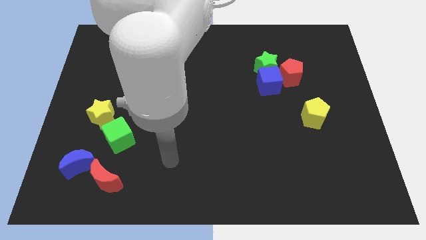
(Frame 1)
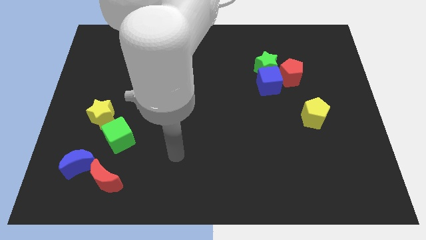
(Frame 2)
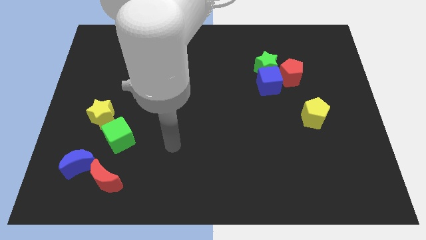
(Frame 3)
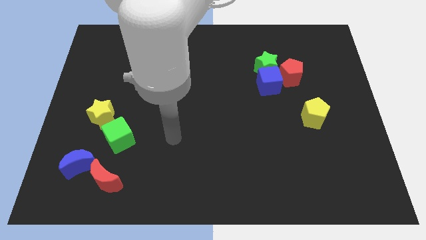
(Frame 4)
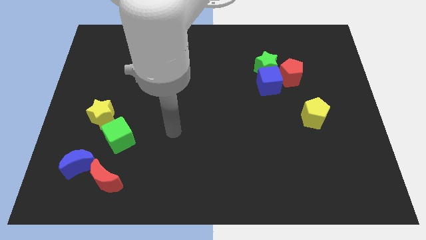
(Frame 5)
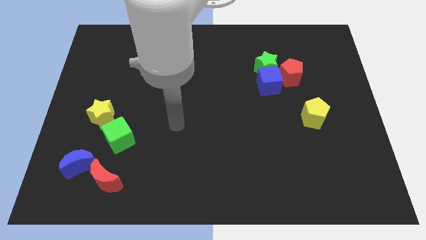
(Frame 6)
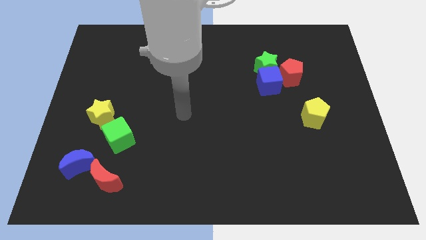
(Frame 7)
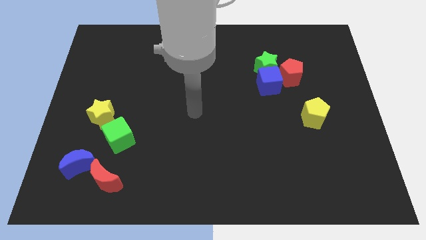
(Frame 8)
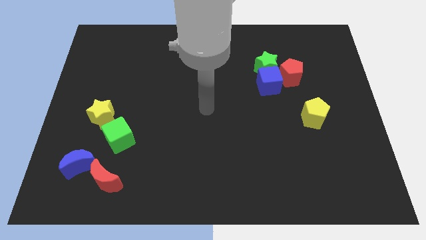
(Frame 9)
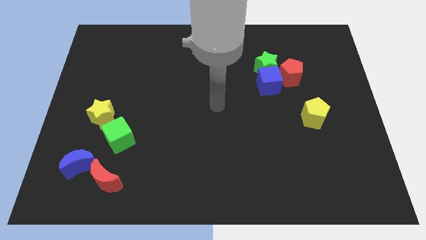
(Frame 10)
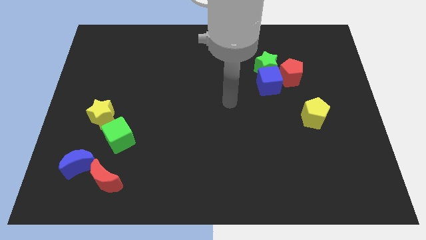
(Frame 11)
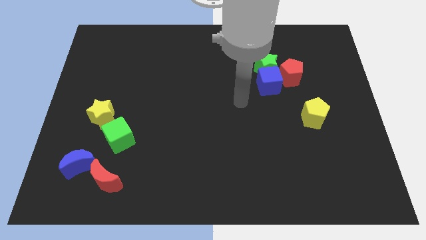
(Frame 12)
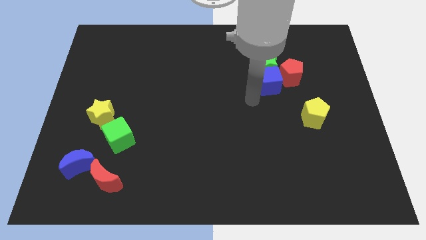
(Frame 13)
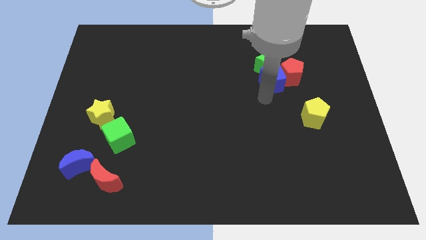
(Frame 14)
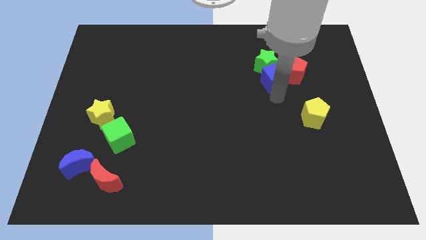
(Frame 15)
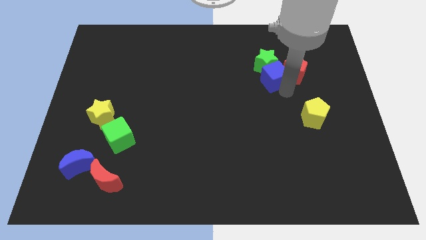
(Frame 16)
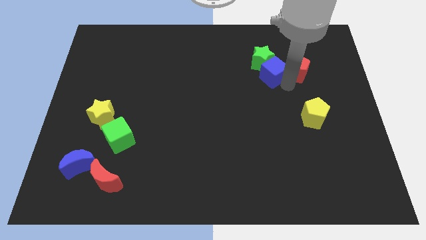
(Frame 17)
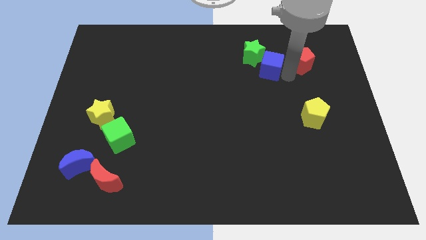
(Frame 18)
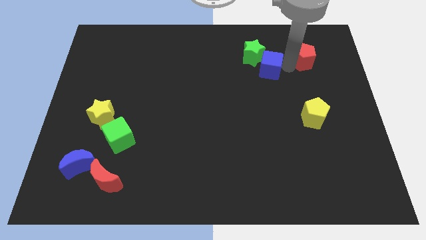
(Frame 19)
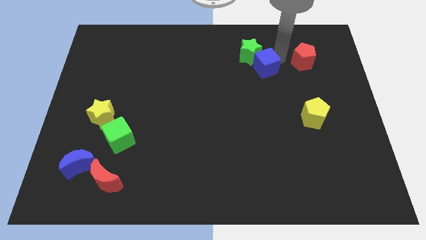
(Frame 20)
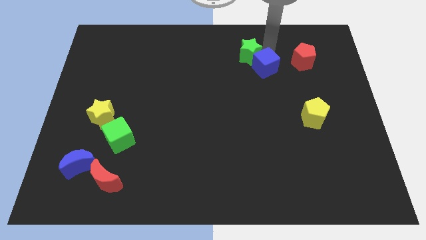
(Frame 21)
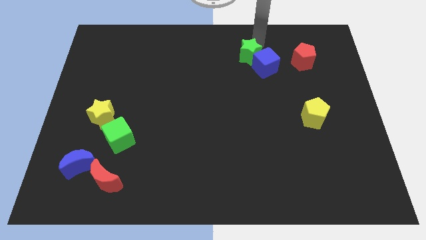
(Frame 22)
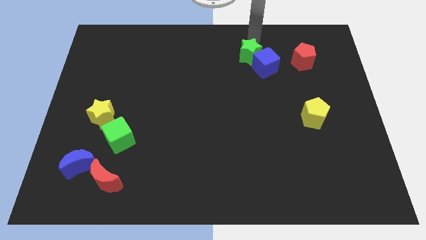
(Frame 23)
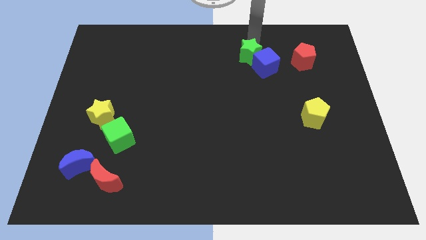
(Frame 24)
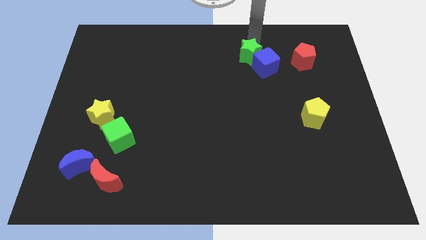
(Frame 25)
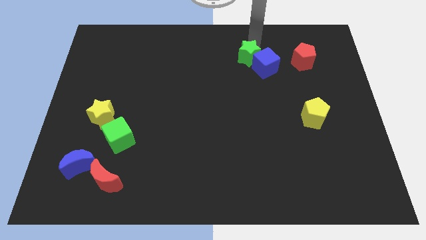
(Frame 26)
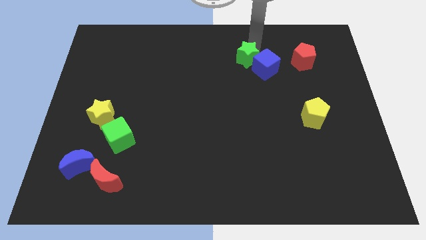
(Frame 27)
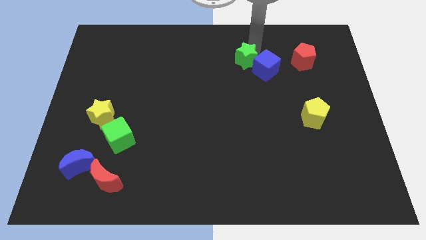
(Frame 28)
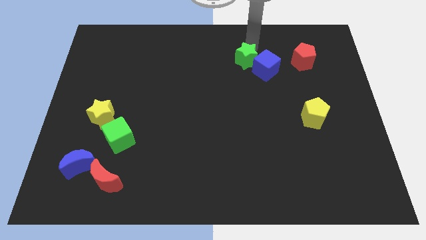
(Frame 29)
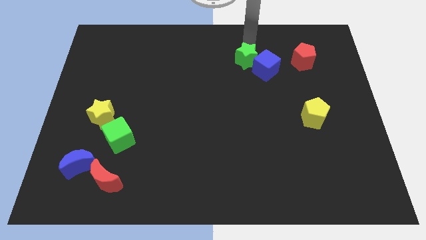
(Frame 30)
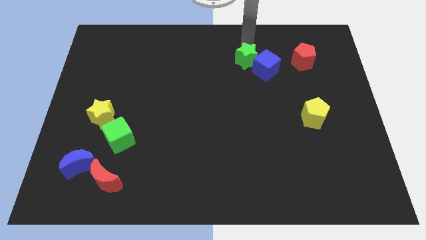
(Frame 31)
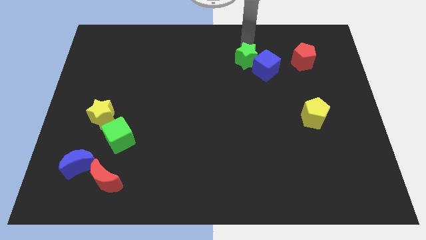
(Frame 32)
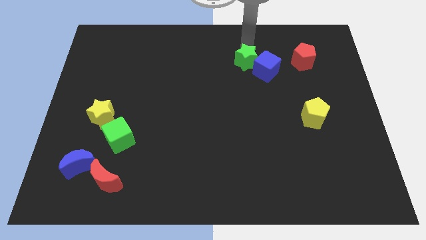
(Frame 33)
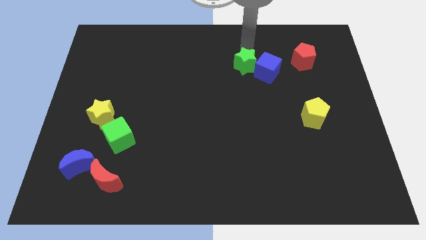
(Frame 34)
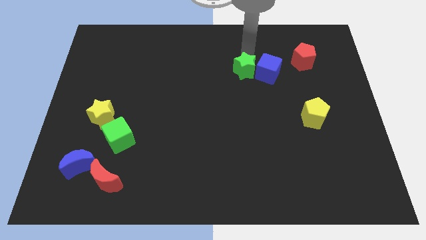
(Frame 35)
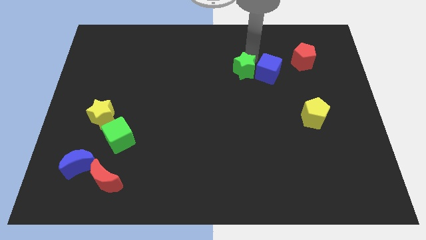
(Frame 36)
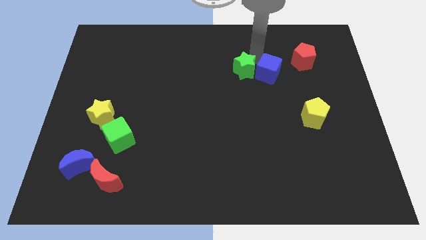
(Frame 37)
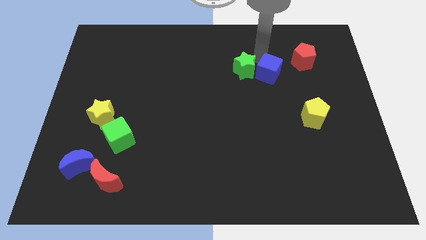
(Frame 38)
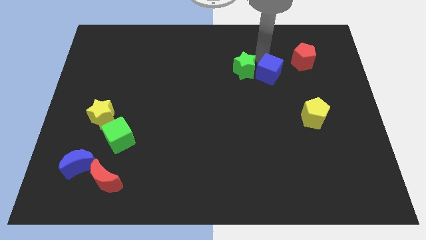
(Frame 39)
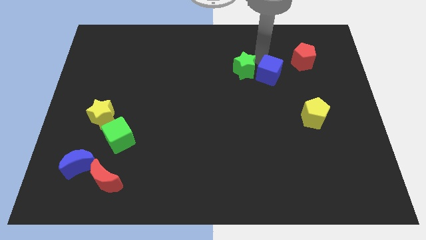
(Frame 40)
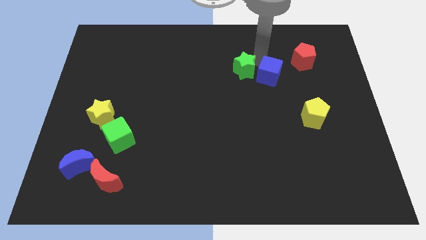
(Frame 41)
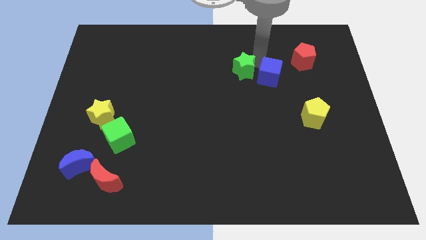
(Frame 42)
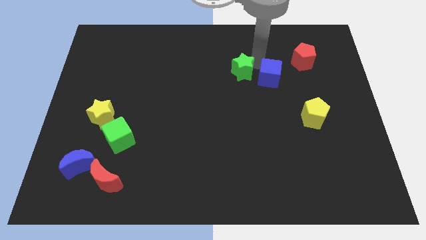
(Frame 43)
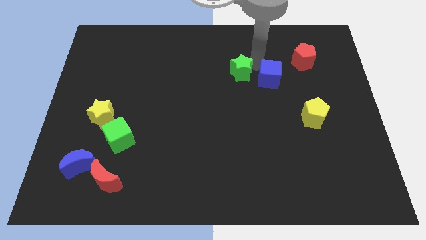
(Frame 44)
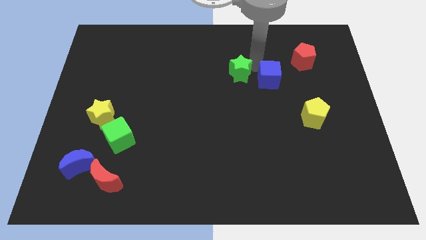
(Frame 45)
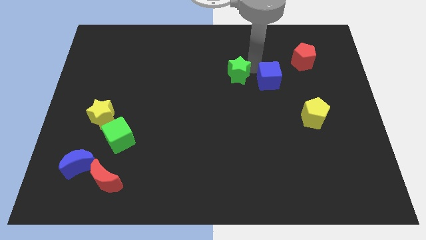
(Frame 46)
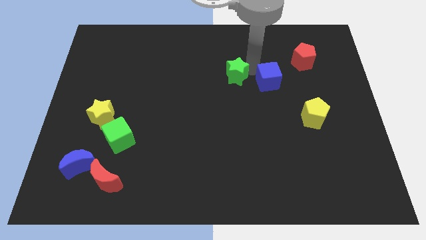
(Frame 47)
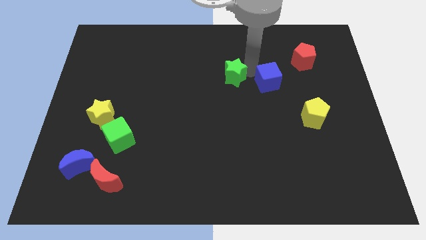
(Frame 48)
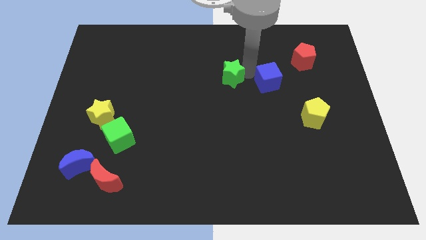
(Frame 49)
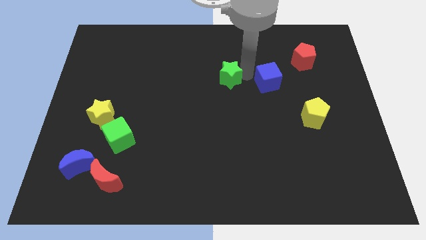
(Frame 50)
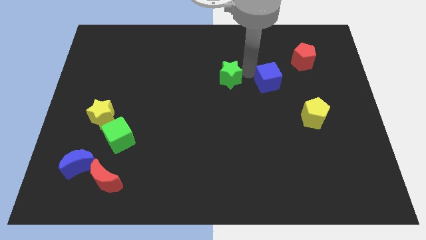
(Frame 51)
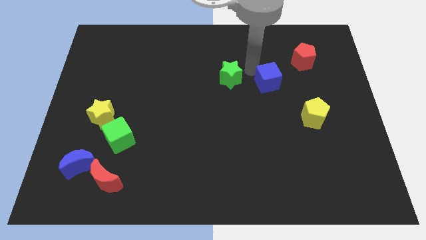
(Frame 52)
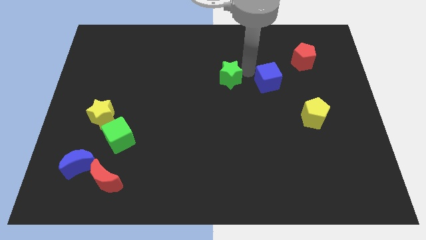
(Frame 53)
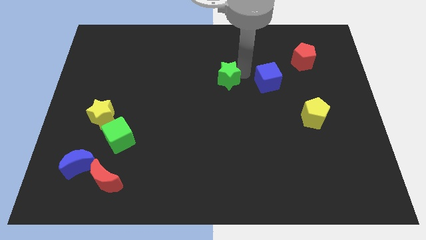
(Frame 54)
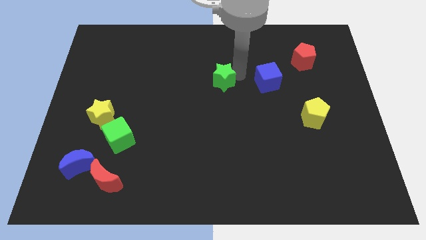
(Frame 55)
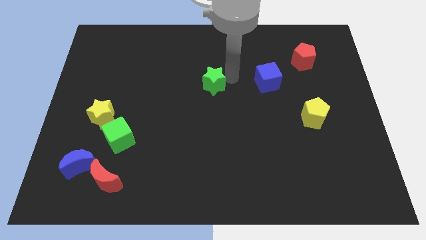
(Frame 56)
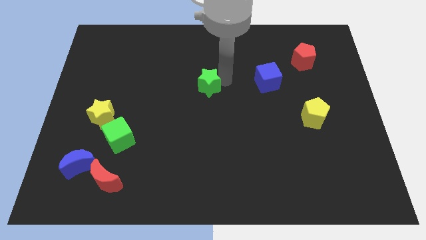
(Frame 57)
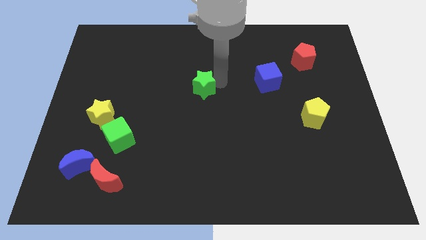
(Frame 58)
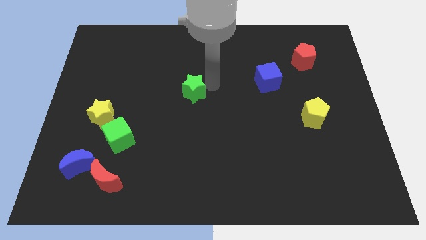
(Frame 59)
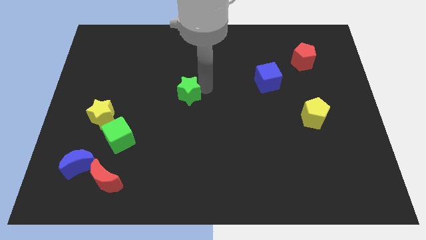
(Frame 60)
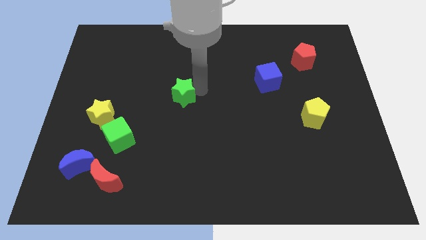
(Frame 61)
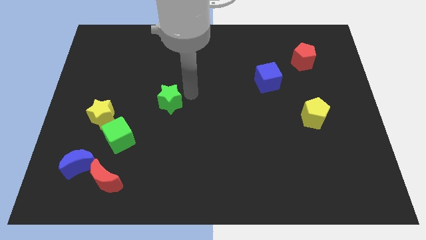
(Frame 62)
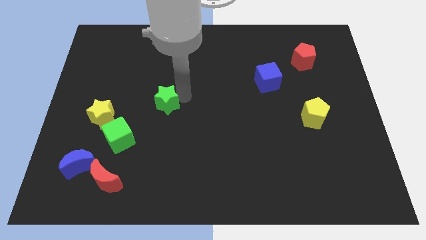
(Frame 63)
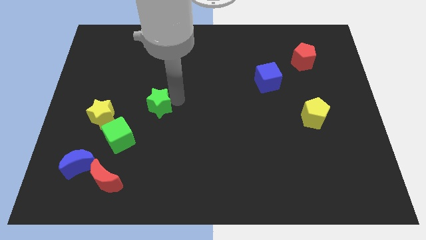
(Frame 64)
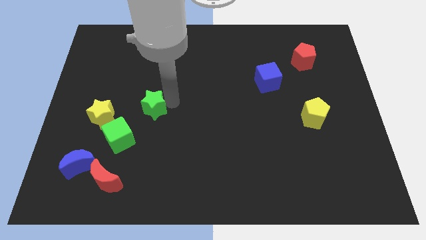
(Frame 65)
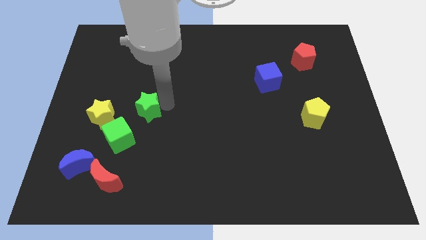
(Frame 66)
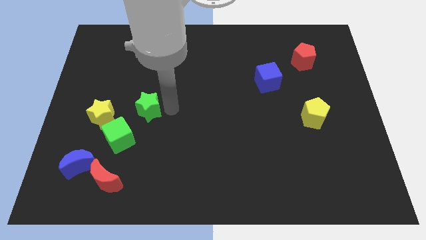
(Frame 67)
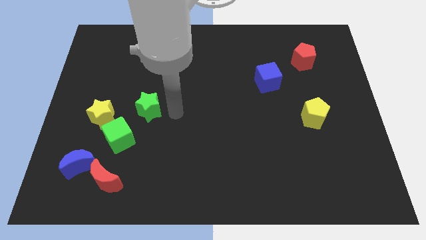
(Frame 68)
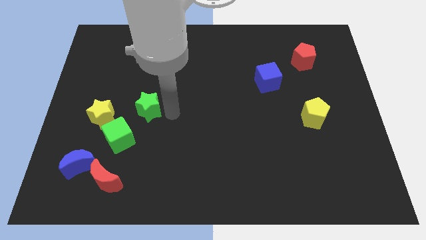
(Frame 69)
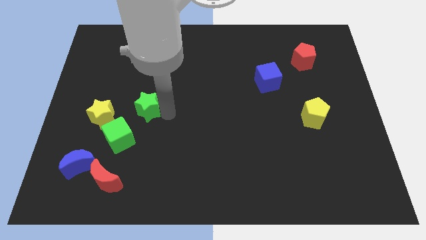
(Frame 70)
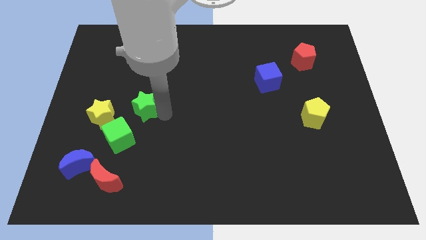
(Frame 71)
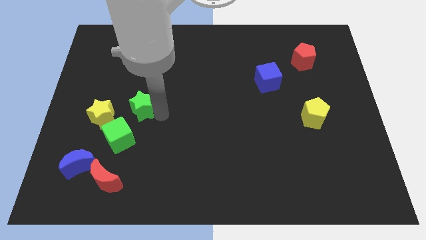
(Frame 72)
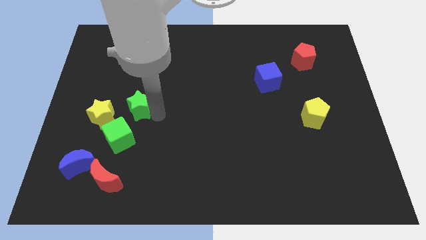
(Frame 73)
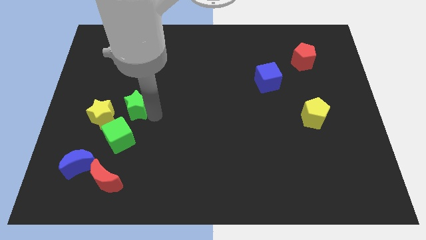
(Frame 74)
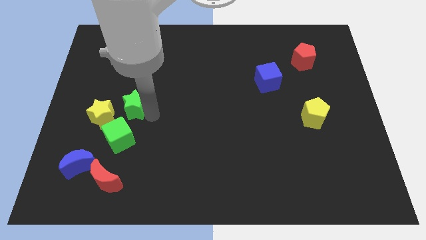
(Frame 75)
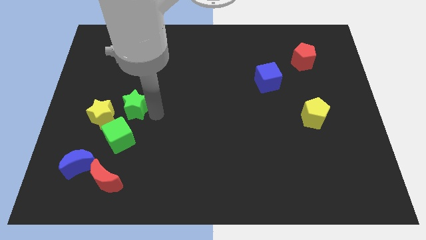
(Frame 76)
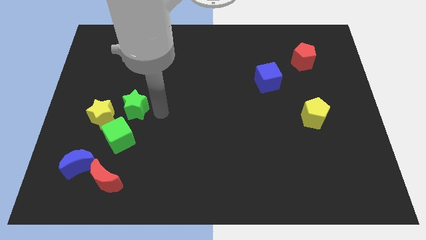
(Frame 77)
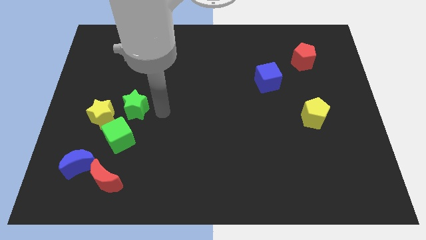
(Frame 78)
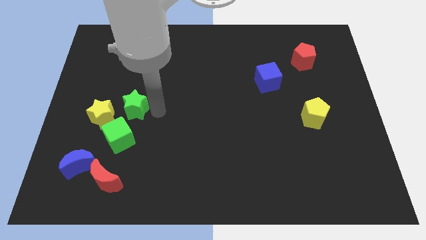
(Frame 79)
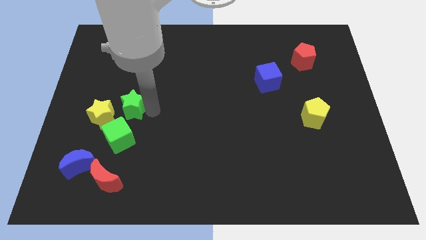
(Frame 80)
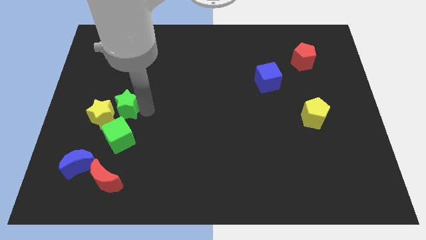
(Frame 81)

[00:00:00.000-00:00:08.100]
slide the green star towards the yellow star
